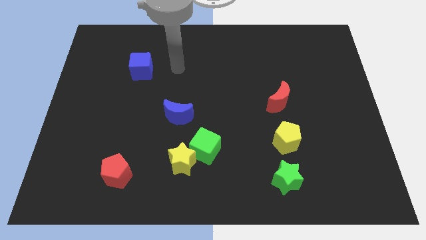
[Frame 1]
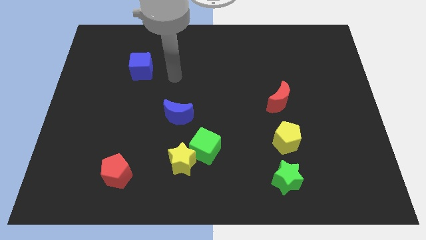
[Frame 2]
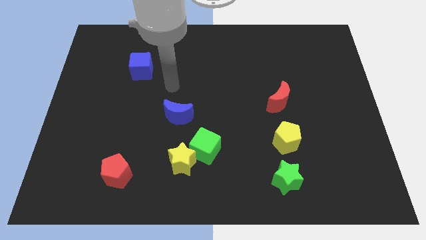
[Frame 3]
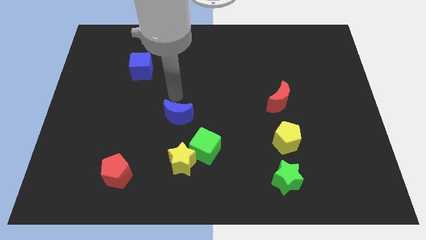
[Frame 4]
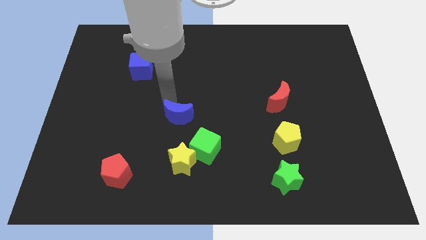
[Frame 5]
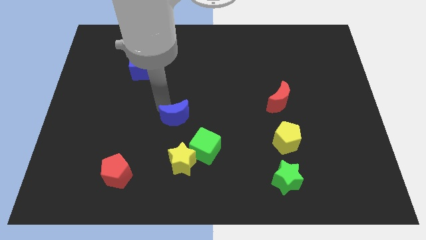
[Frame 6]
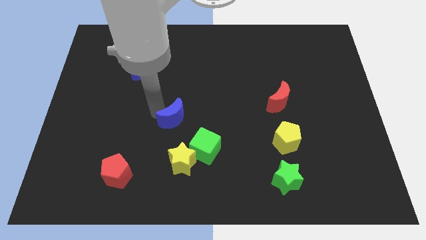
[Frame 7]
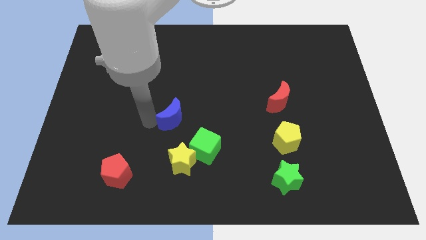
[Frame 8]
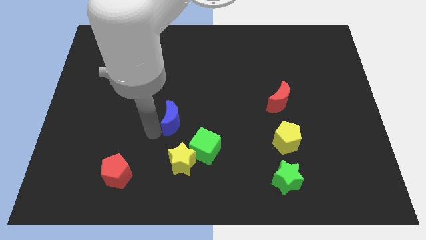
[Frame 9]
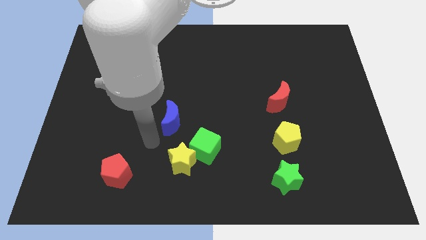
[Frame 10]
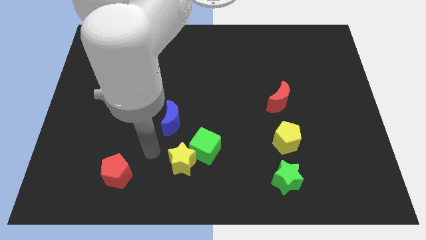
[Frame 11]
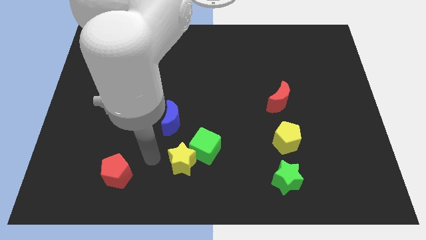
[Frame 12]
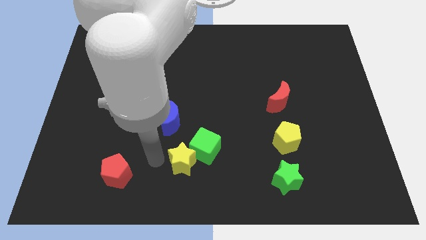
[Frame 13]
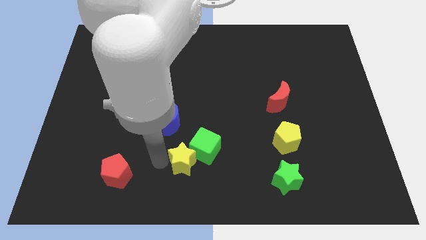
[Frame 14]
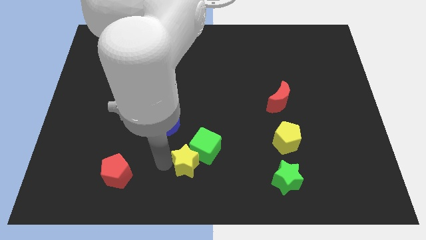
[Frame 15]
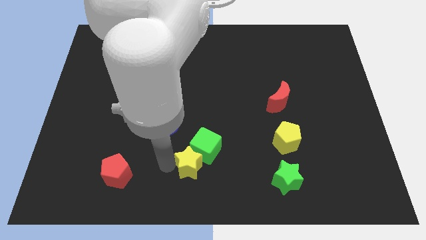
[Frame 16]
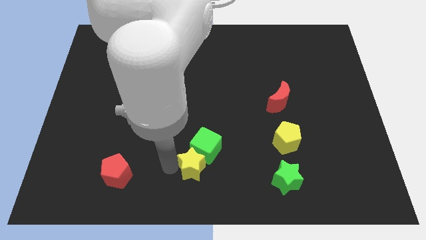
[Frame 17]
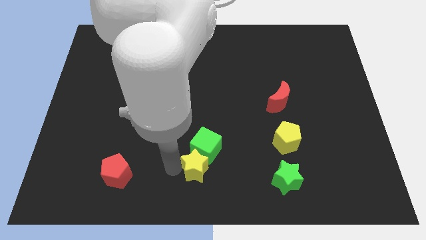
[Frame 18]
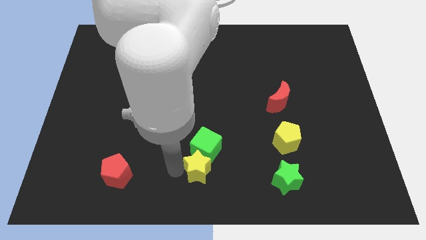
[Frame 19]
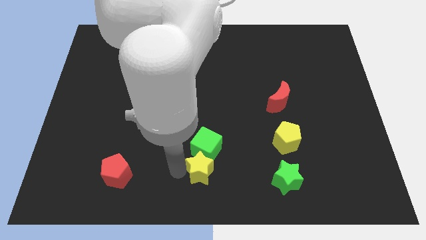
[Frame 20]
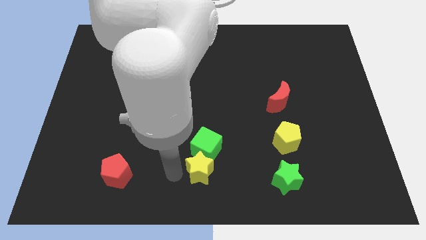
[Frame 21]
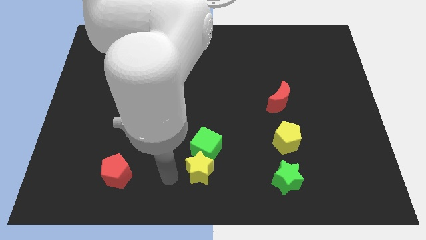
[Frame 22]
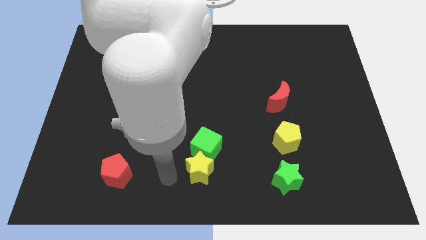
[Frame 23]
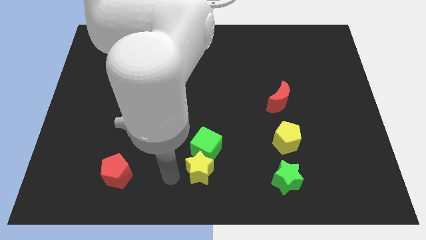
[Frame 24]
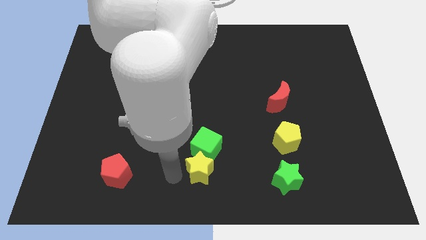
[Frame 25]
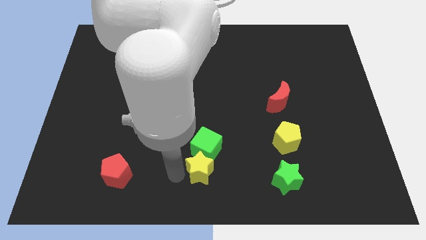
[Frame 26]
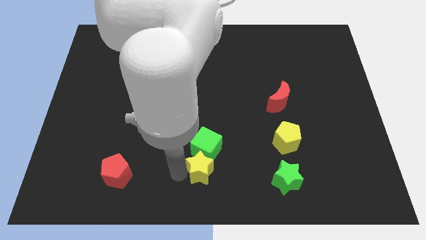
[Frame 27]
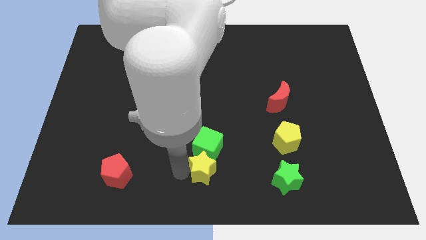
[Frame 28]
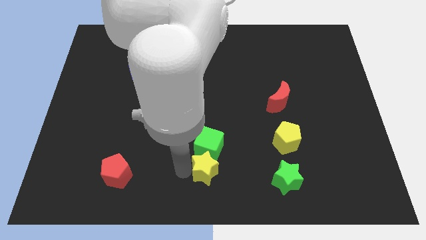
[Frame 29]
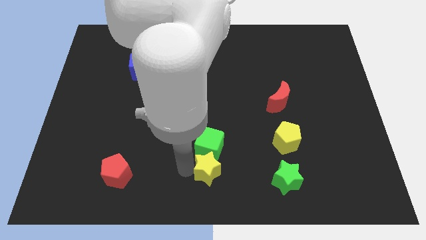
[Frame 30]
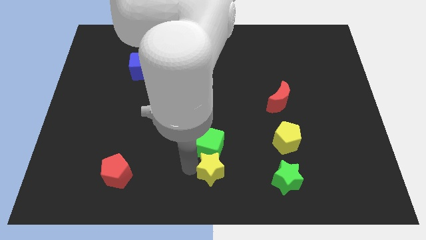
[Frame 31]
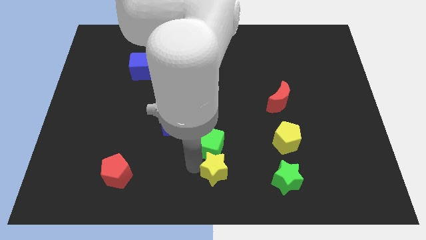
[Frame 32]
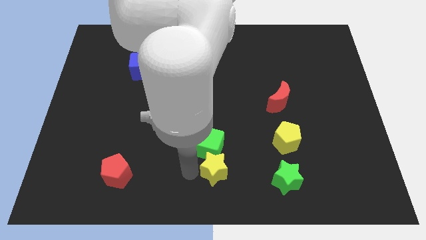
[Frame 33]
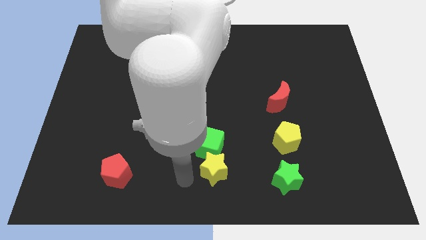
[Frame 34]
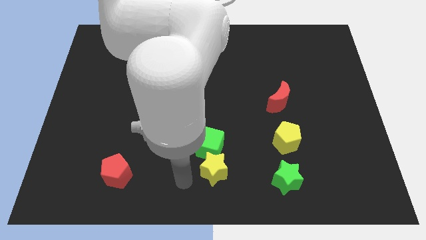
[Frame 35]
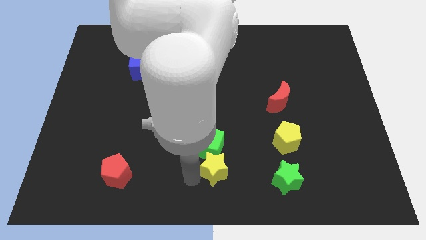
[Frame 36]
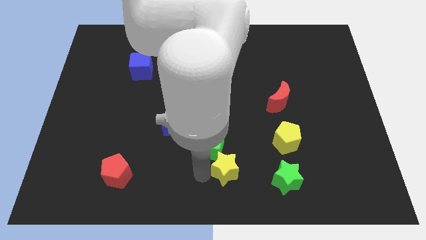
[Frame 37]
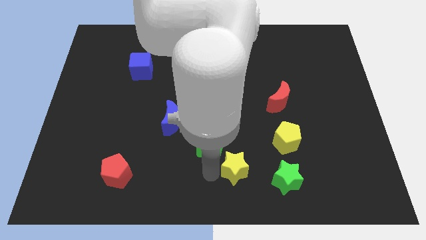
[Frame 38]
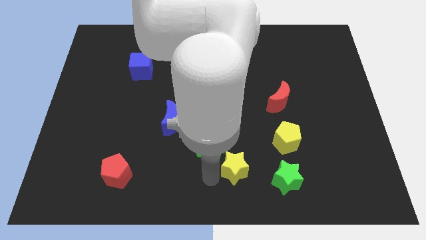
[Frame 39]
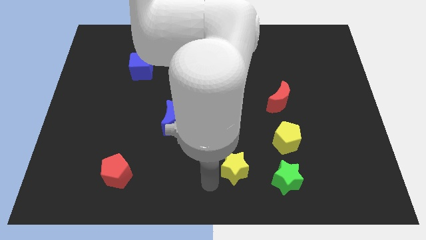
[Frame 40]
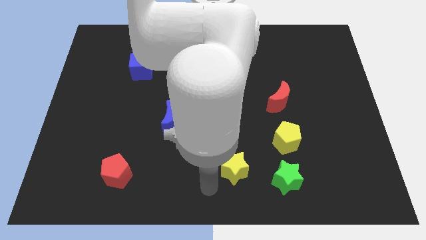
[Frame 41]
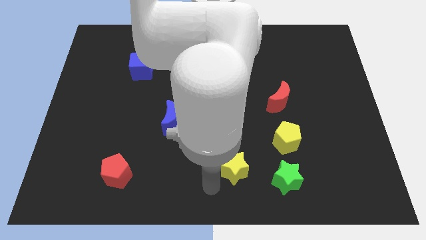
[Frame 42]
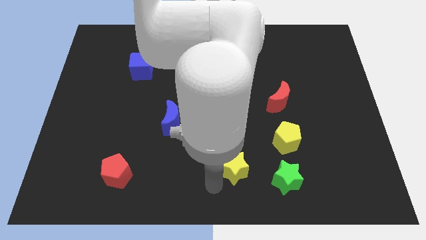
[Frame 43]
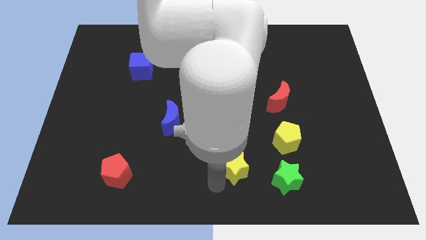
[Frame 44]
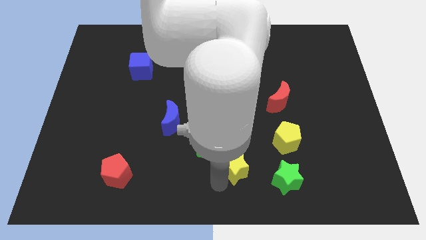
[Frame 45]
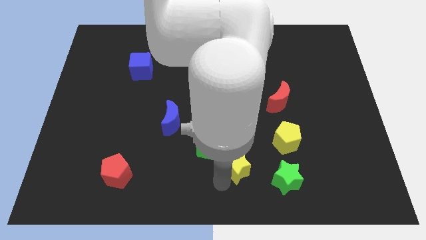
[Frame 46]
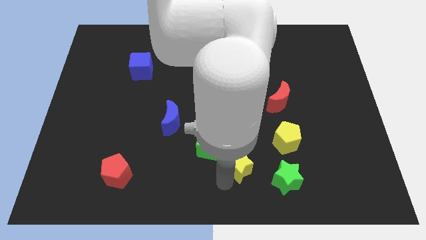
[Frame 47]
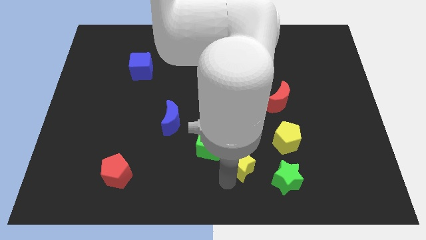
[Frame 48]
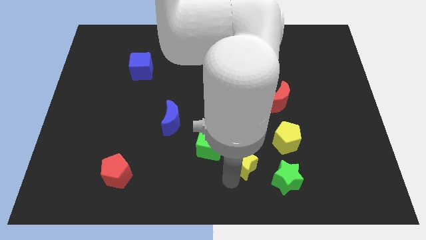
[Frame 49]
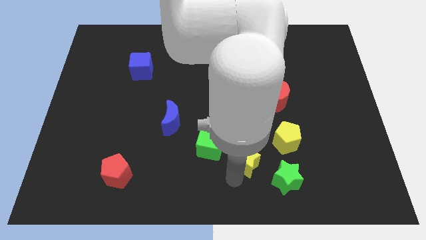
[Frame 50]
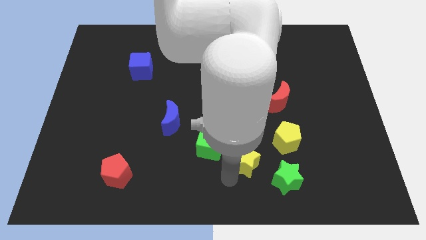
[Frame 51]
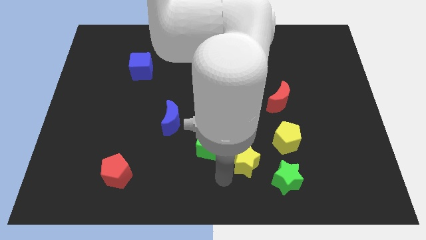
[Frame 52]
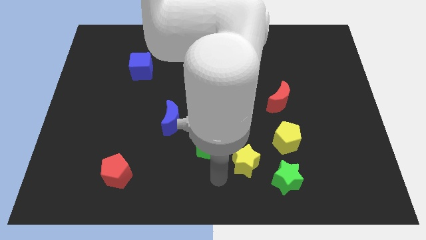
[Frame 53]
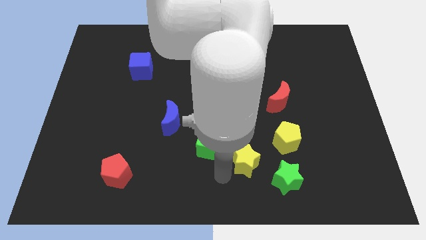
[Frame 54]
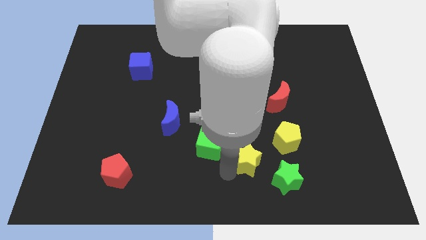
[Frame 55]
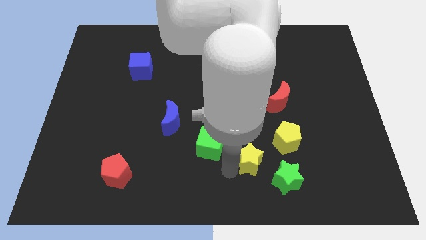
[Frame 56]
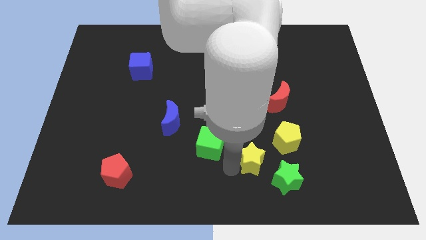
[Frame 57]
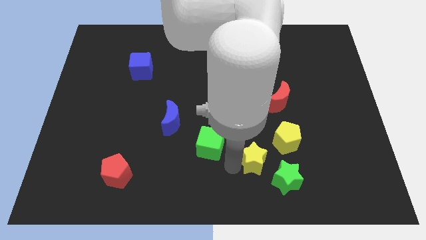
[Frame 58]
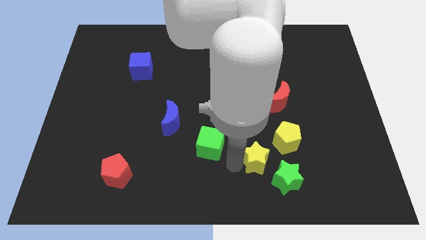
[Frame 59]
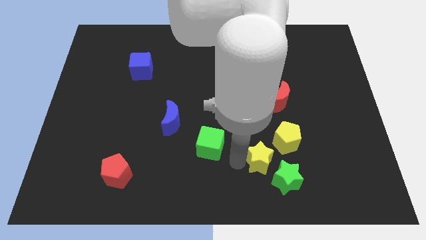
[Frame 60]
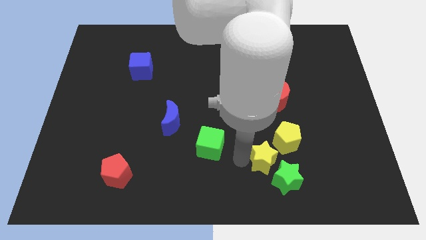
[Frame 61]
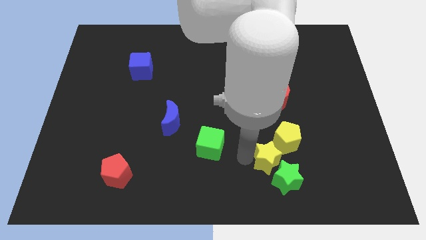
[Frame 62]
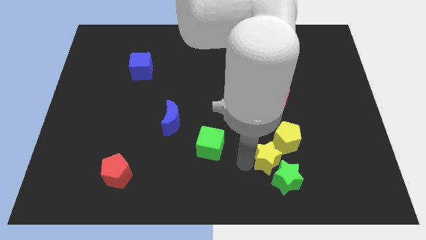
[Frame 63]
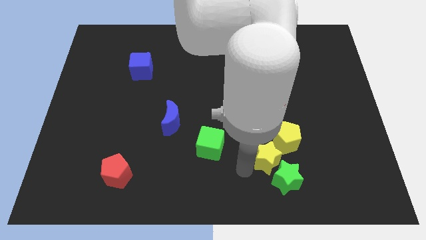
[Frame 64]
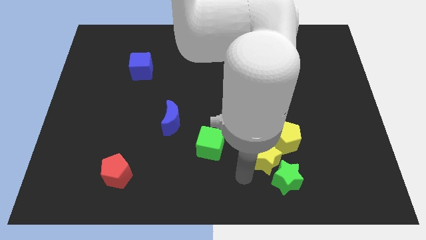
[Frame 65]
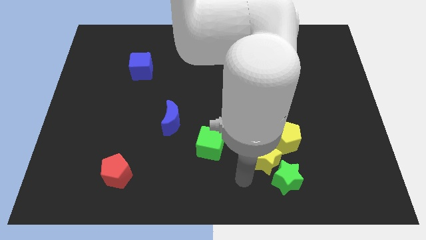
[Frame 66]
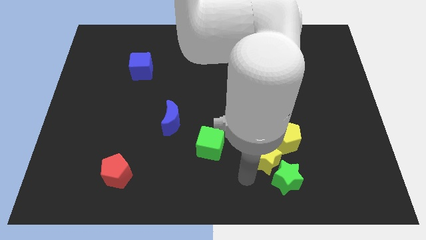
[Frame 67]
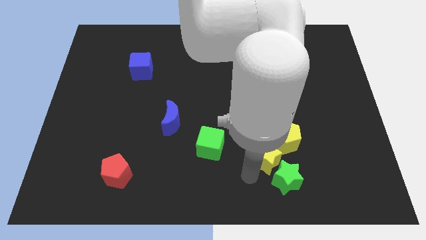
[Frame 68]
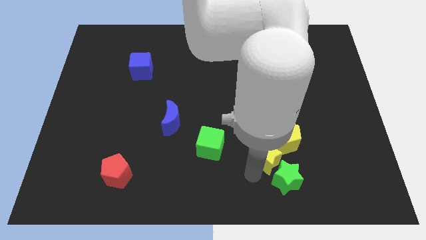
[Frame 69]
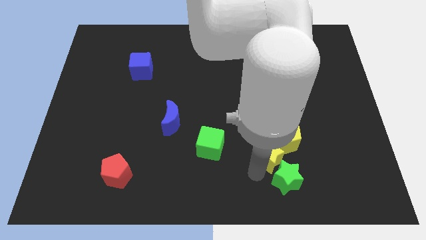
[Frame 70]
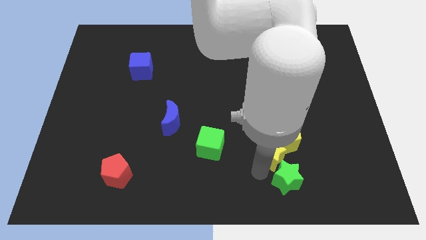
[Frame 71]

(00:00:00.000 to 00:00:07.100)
move the yellow star towards the yellow pentagon

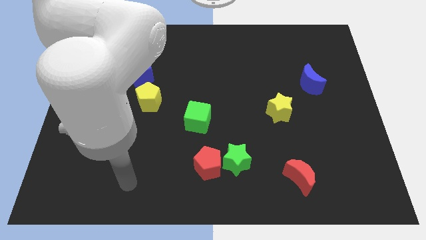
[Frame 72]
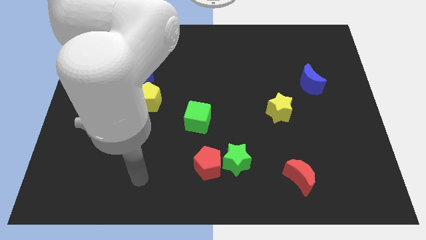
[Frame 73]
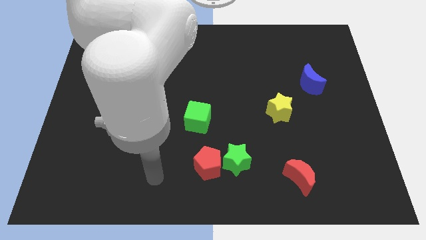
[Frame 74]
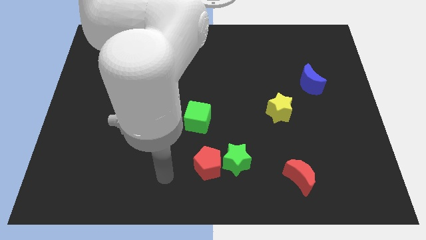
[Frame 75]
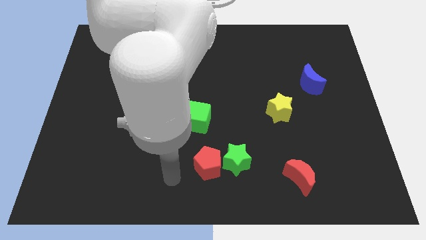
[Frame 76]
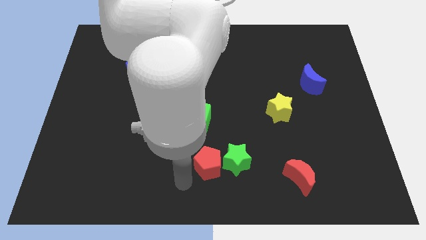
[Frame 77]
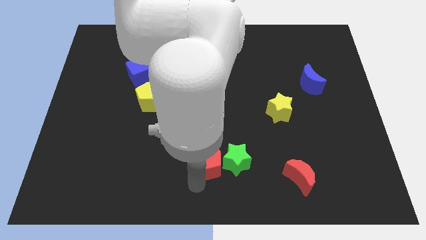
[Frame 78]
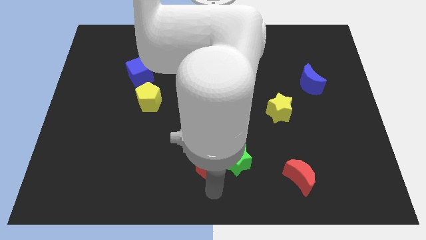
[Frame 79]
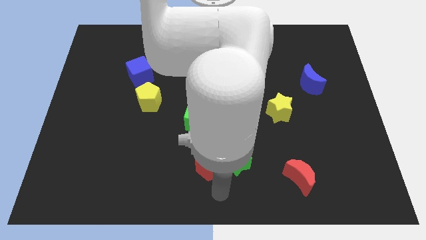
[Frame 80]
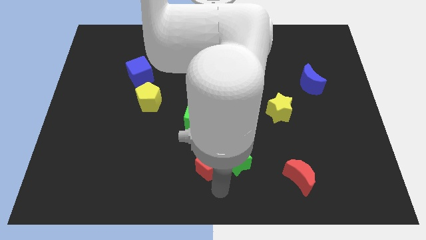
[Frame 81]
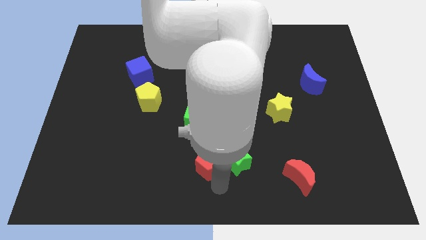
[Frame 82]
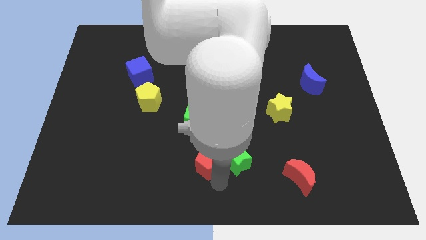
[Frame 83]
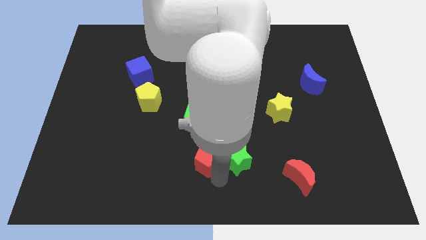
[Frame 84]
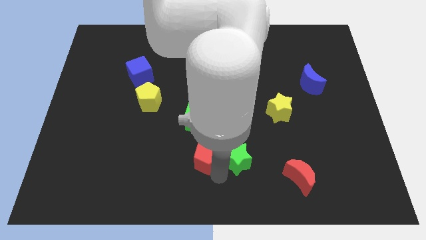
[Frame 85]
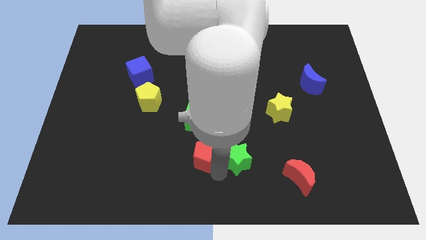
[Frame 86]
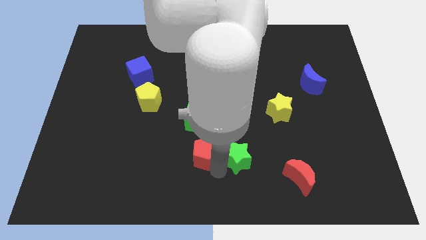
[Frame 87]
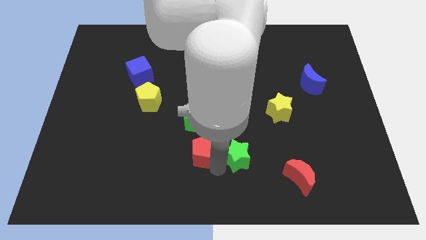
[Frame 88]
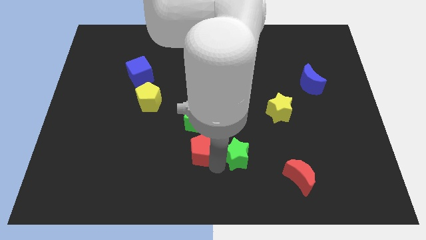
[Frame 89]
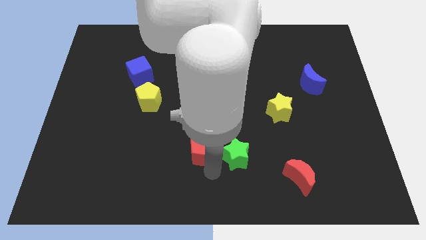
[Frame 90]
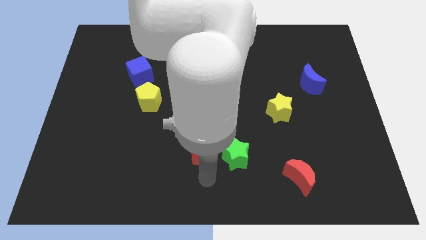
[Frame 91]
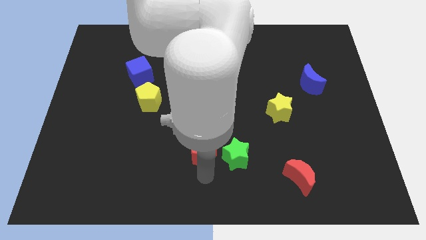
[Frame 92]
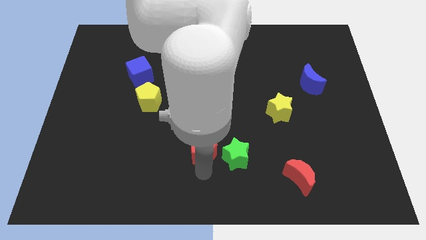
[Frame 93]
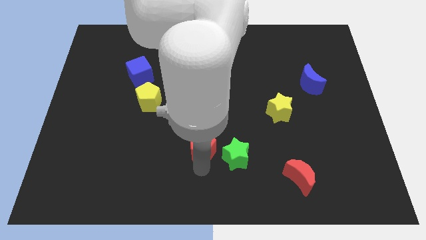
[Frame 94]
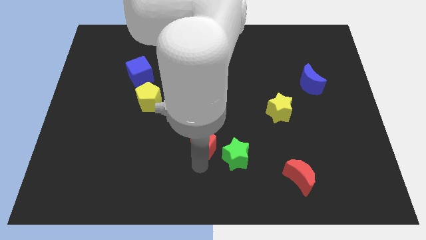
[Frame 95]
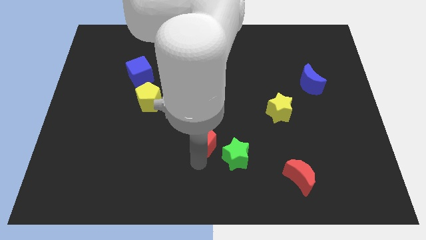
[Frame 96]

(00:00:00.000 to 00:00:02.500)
slide the red pentagon towards the green cube
